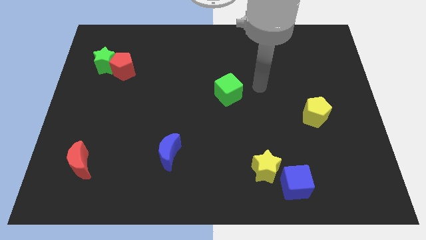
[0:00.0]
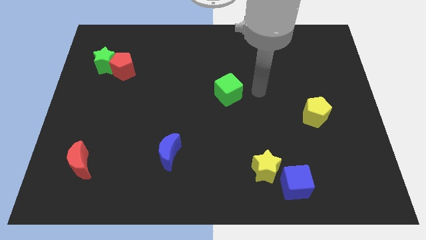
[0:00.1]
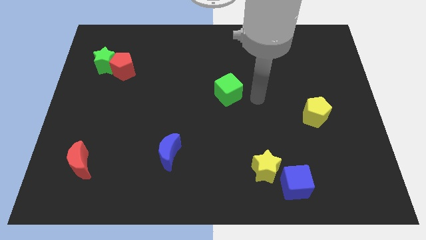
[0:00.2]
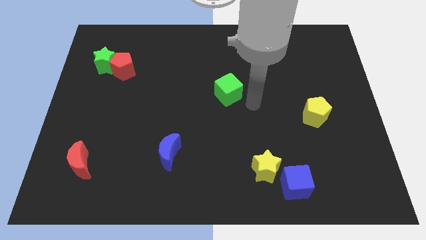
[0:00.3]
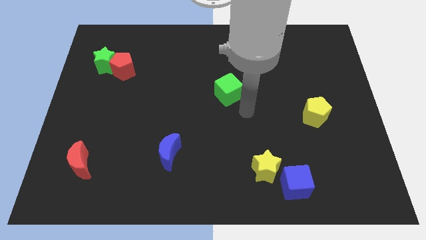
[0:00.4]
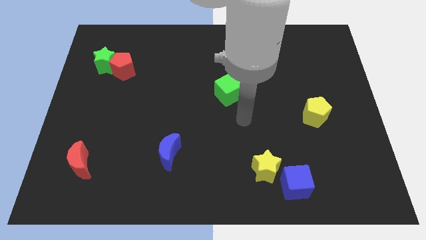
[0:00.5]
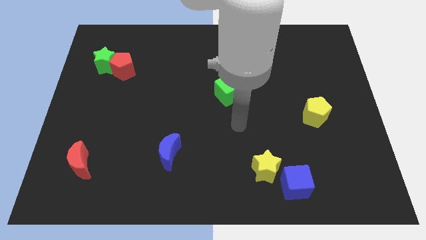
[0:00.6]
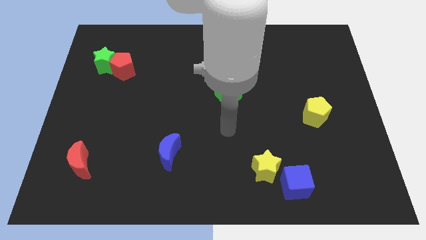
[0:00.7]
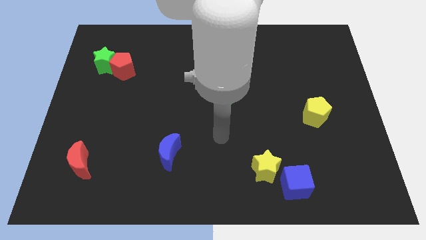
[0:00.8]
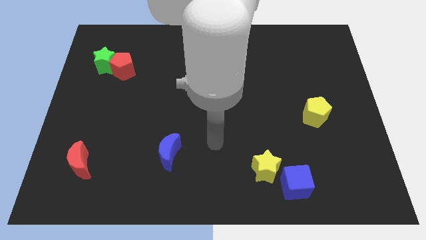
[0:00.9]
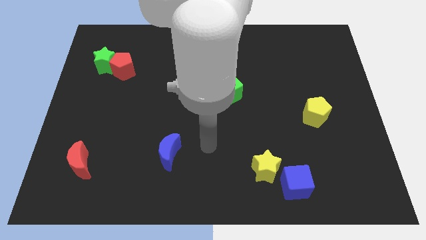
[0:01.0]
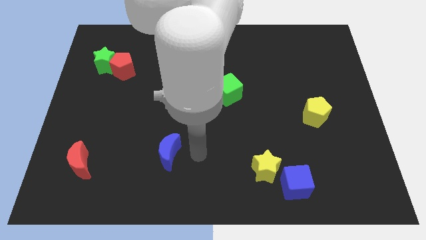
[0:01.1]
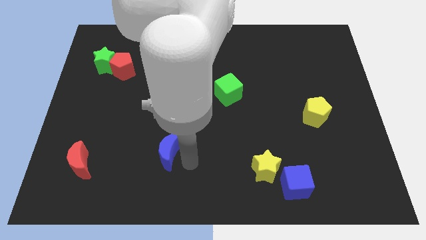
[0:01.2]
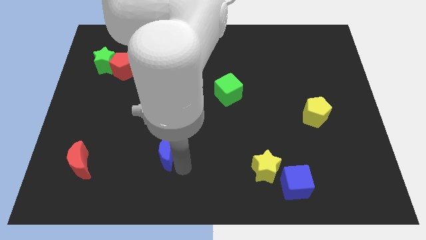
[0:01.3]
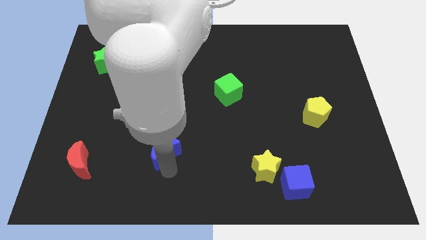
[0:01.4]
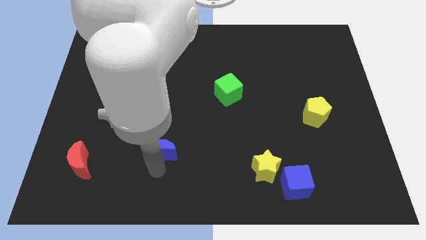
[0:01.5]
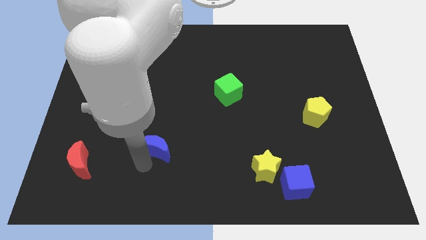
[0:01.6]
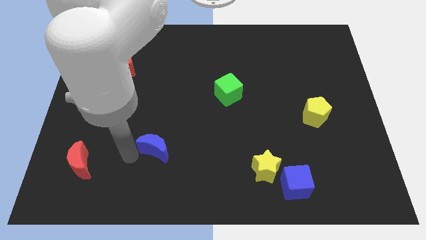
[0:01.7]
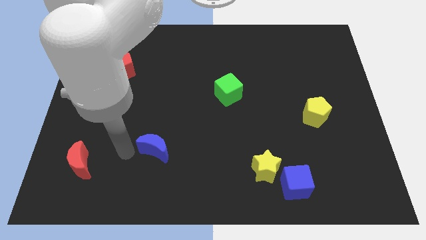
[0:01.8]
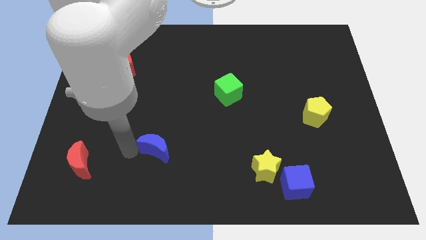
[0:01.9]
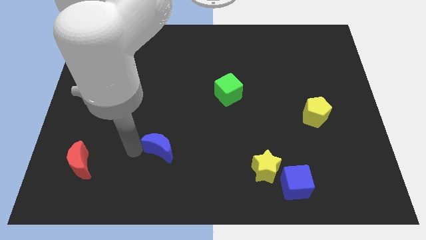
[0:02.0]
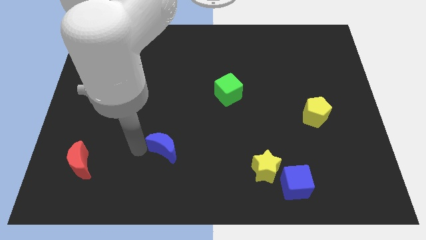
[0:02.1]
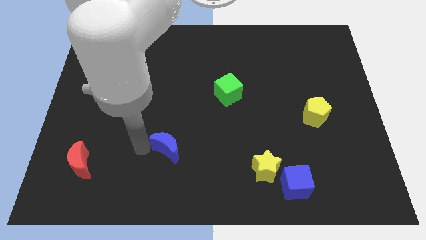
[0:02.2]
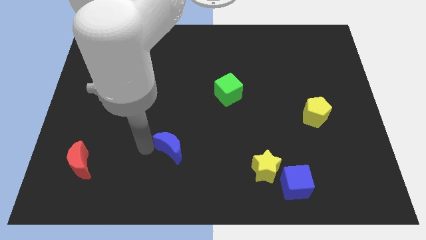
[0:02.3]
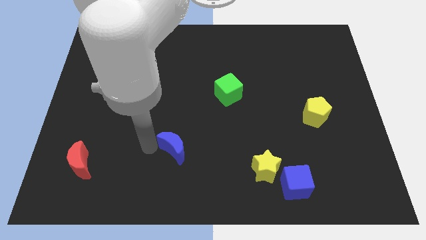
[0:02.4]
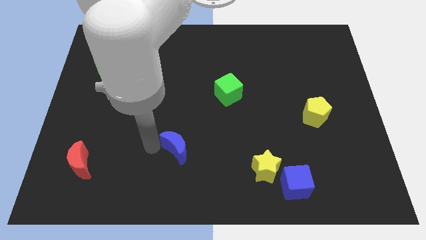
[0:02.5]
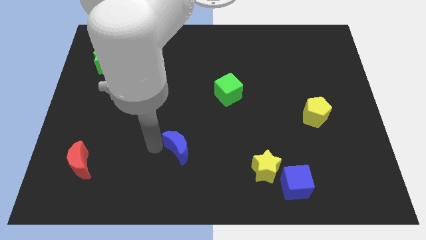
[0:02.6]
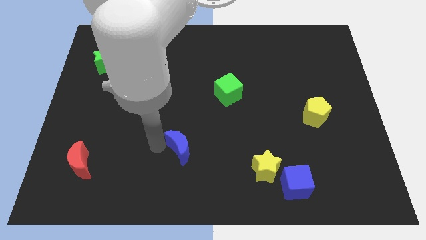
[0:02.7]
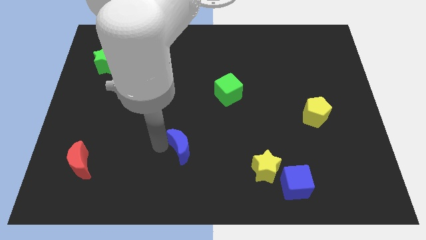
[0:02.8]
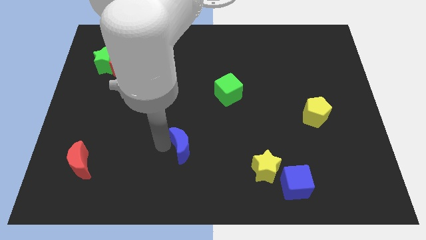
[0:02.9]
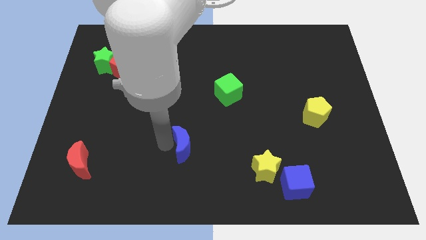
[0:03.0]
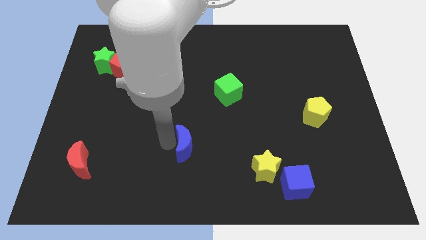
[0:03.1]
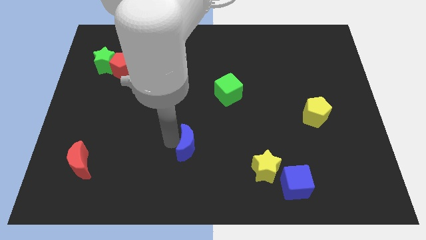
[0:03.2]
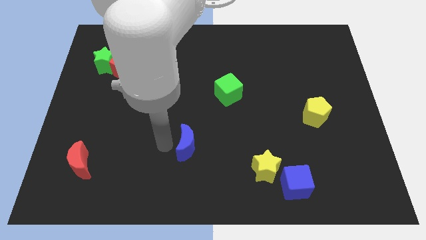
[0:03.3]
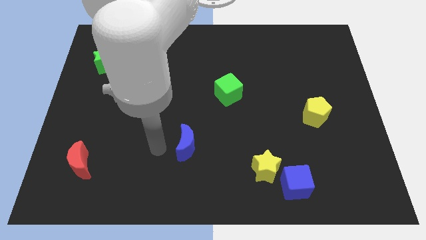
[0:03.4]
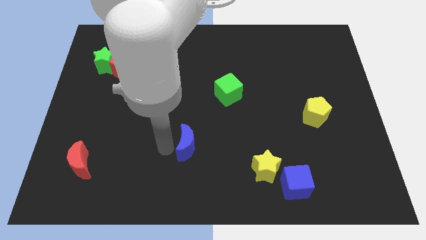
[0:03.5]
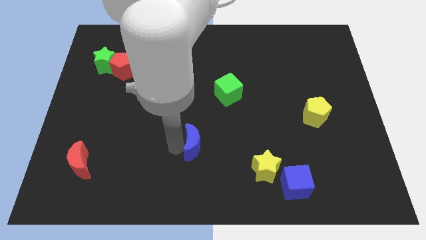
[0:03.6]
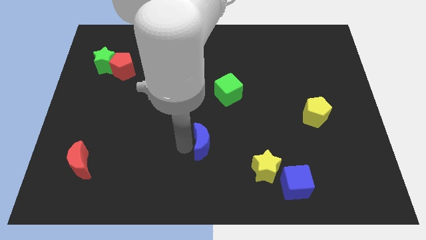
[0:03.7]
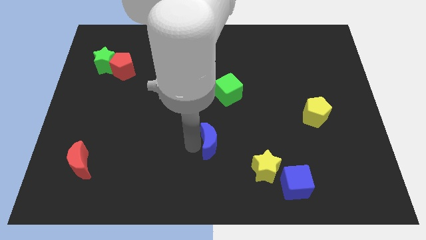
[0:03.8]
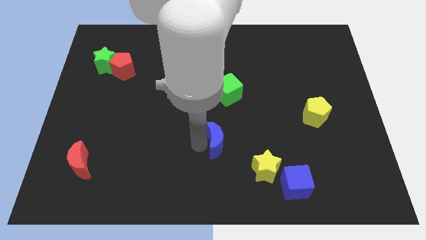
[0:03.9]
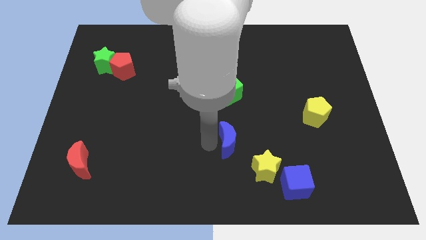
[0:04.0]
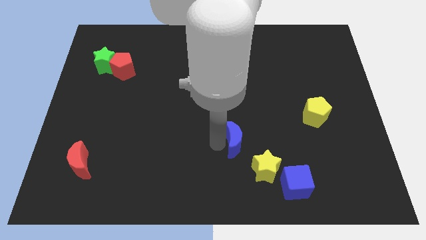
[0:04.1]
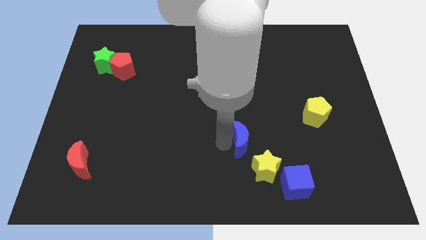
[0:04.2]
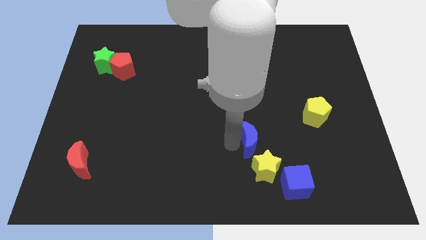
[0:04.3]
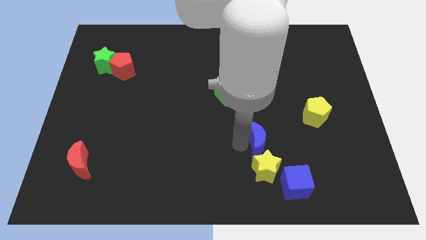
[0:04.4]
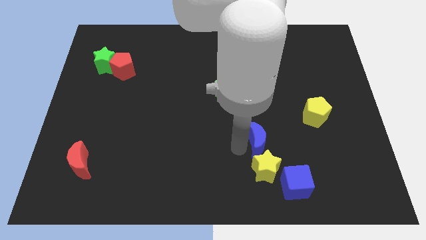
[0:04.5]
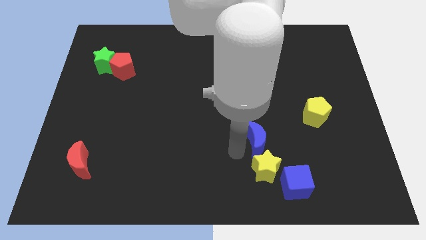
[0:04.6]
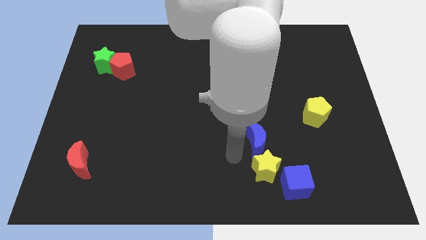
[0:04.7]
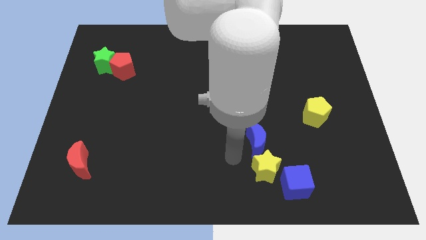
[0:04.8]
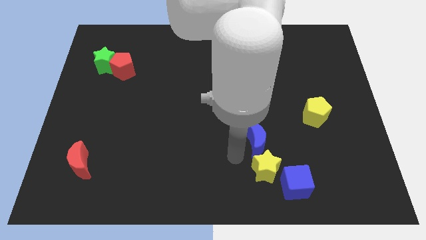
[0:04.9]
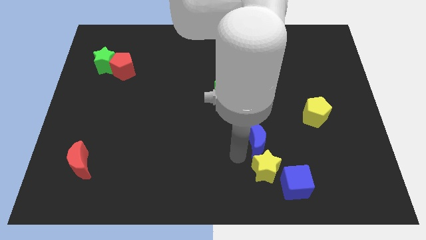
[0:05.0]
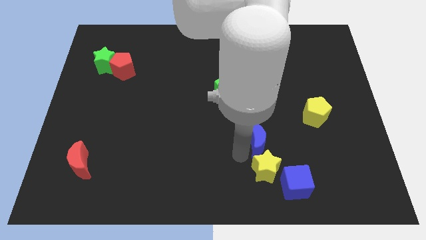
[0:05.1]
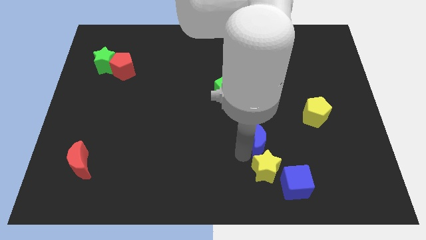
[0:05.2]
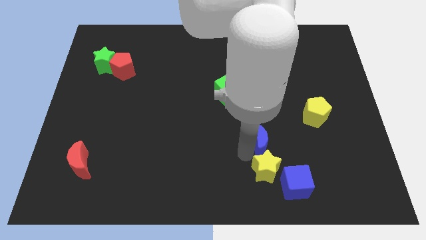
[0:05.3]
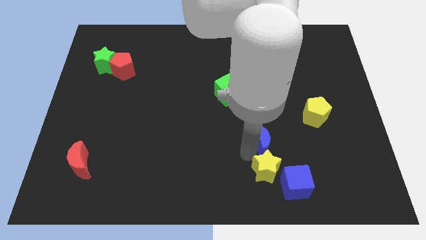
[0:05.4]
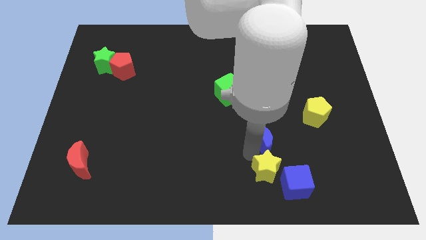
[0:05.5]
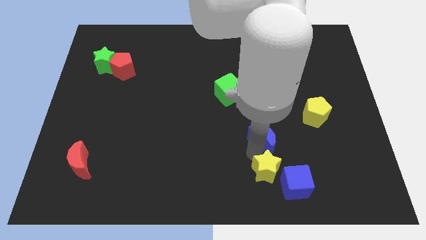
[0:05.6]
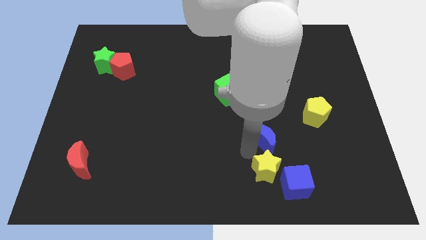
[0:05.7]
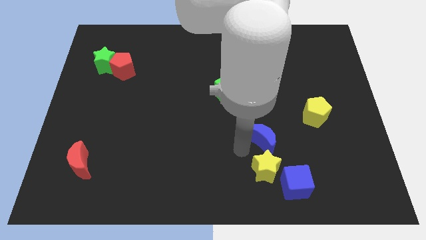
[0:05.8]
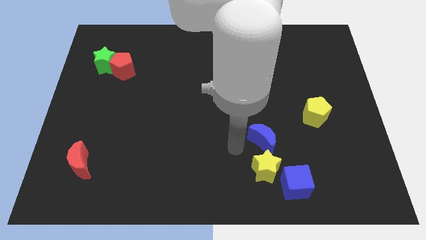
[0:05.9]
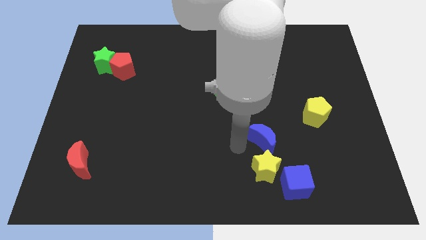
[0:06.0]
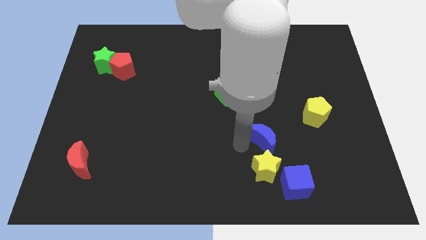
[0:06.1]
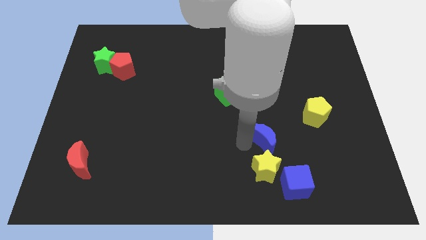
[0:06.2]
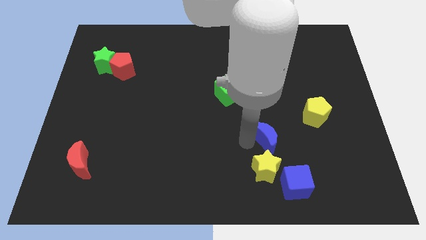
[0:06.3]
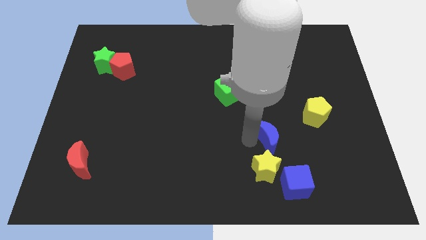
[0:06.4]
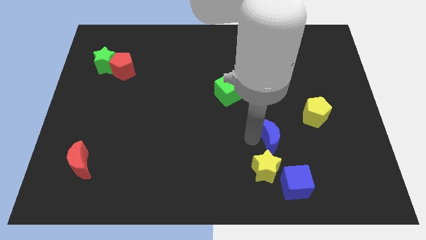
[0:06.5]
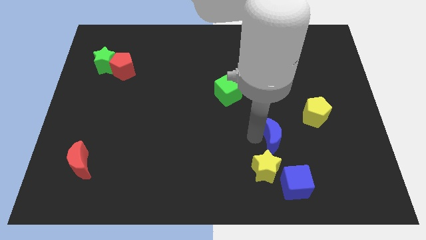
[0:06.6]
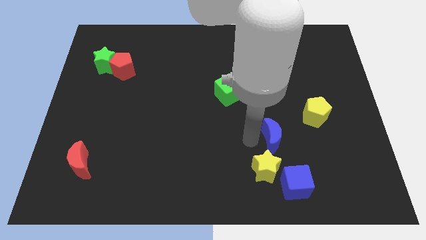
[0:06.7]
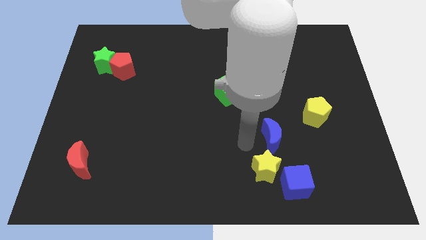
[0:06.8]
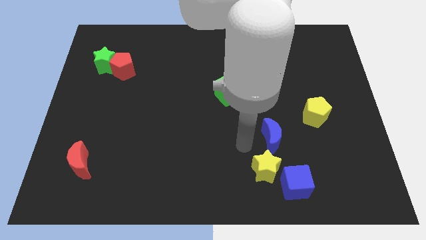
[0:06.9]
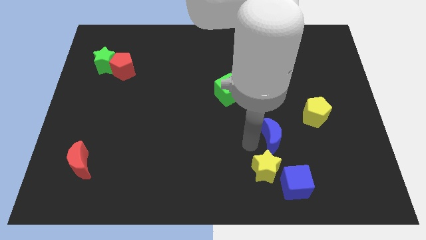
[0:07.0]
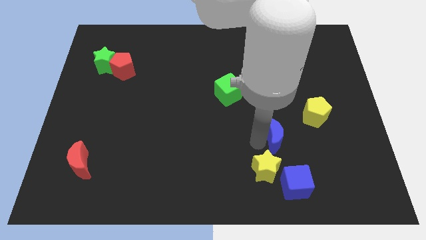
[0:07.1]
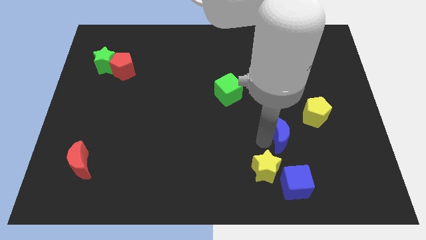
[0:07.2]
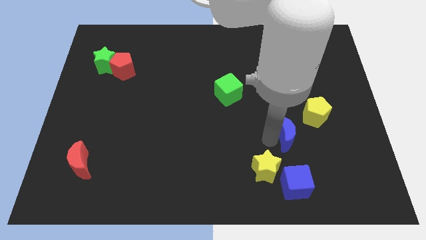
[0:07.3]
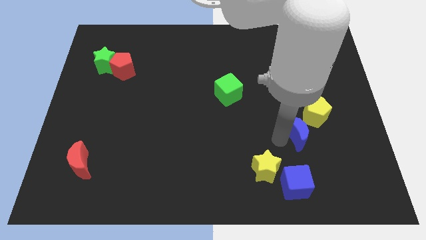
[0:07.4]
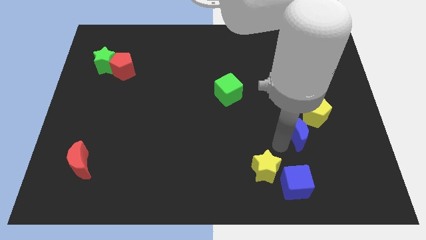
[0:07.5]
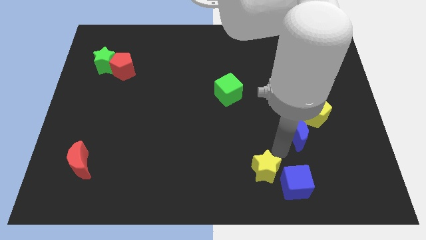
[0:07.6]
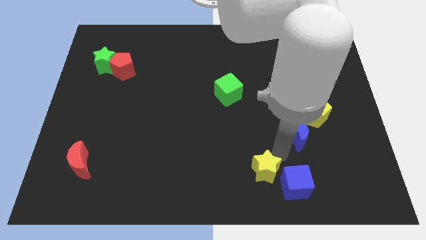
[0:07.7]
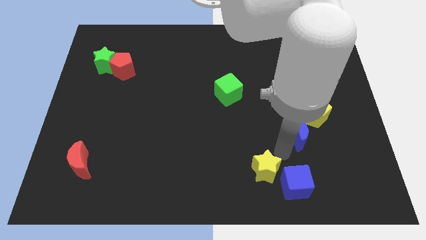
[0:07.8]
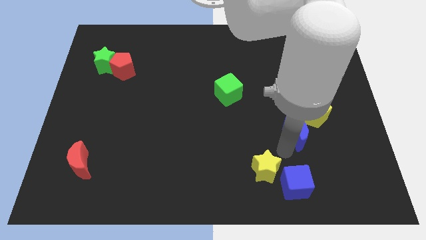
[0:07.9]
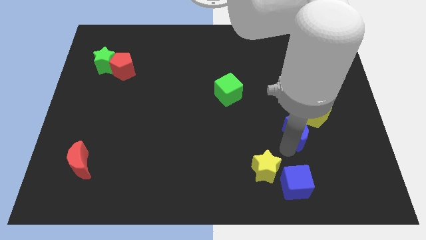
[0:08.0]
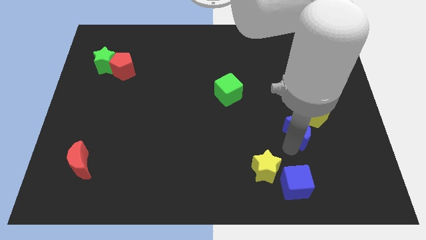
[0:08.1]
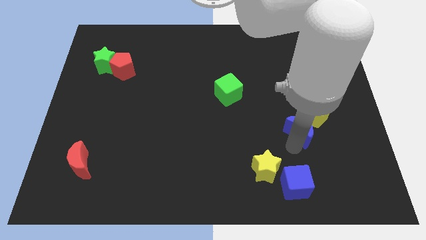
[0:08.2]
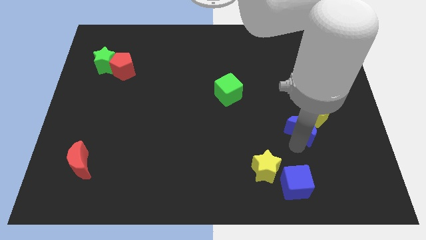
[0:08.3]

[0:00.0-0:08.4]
push the blue moon to the yellow pentagon
